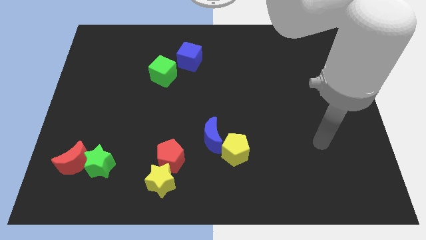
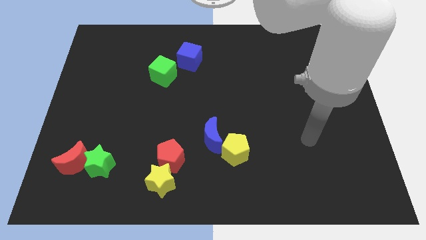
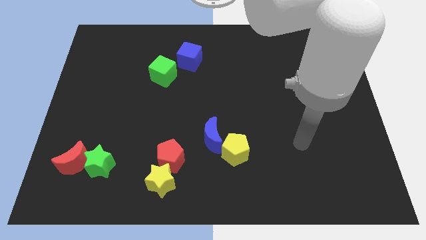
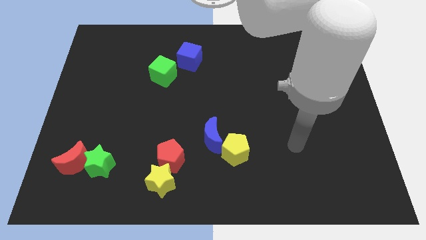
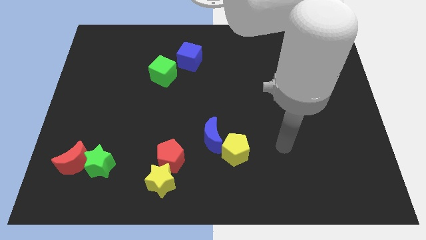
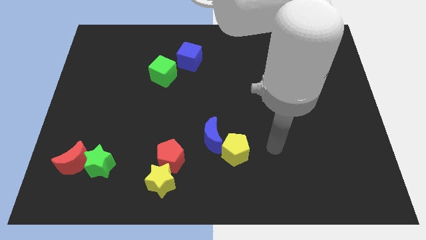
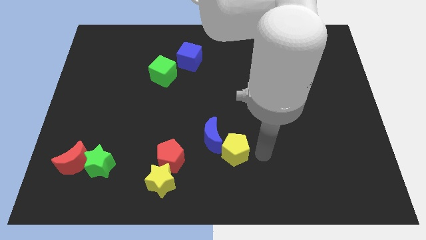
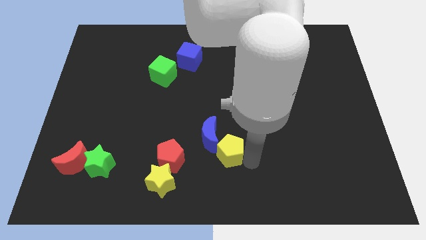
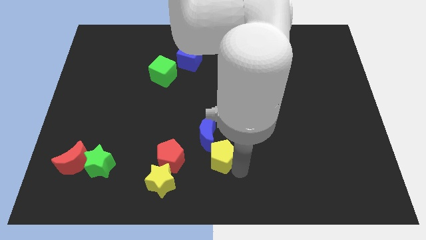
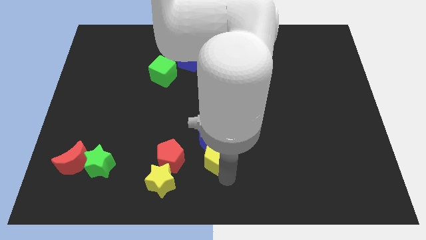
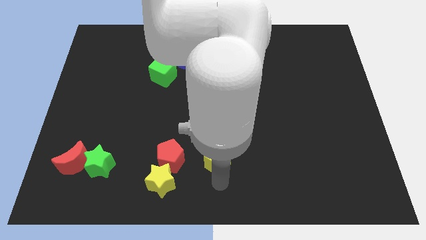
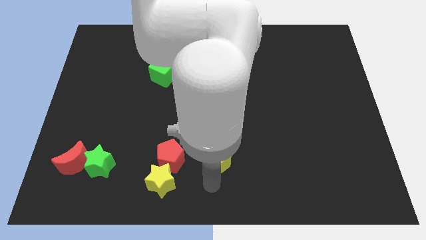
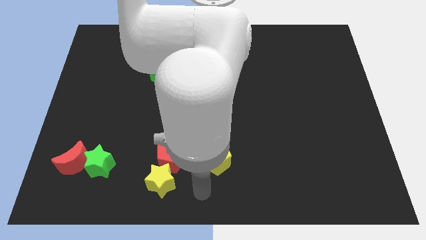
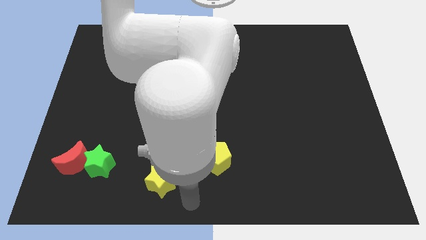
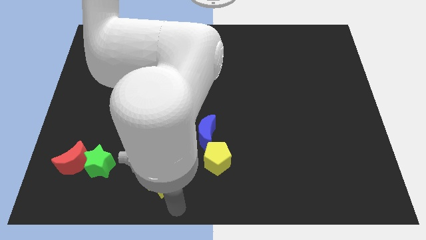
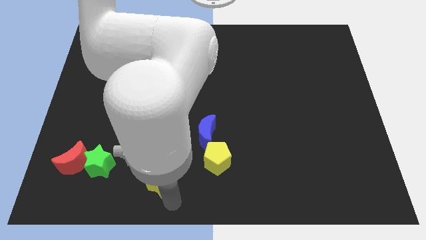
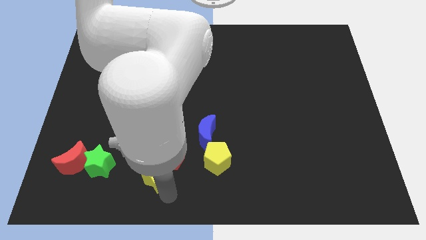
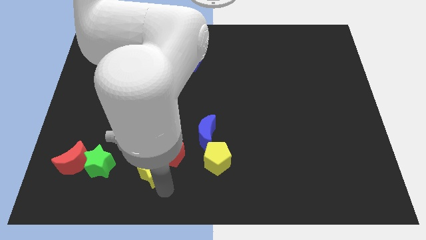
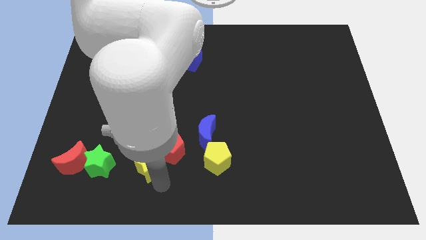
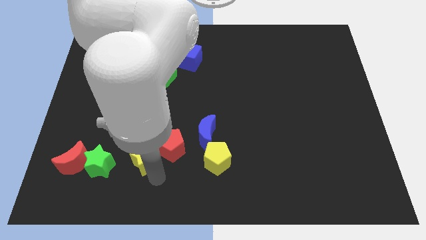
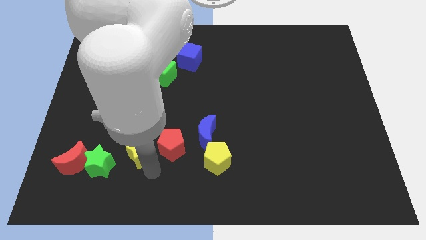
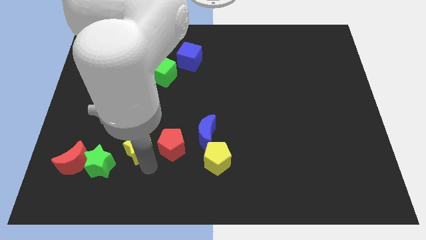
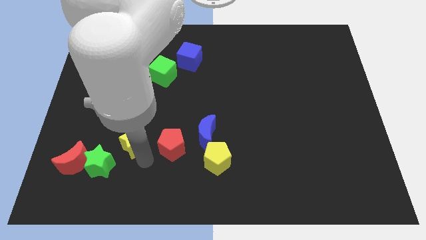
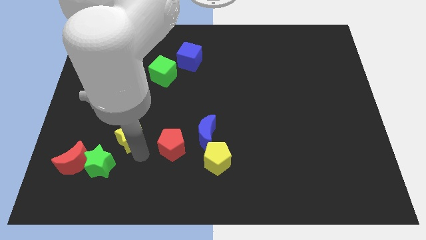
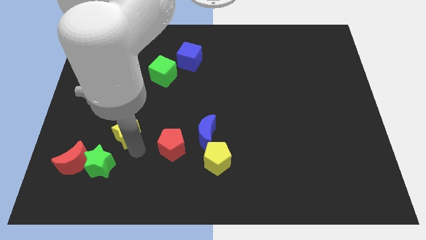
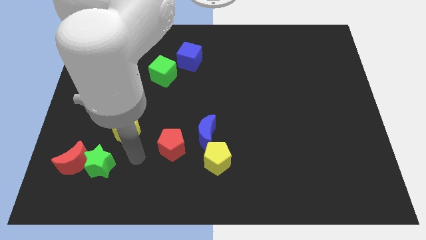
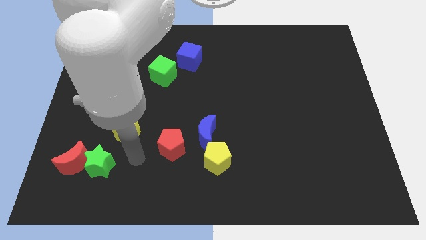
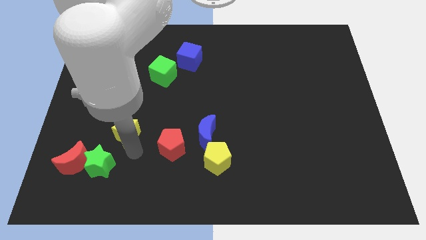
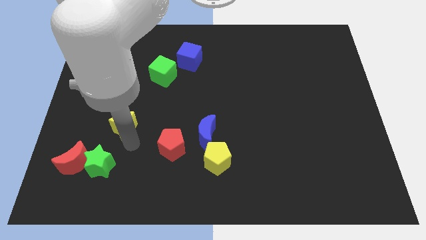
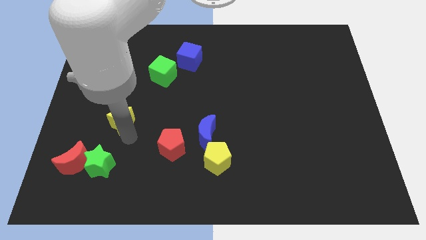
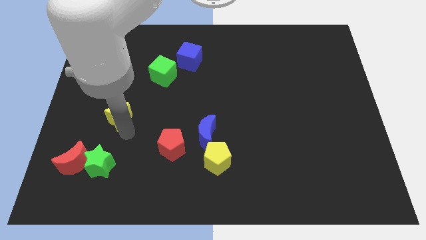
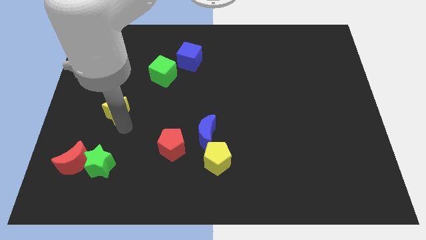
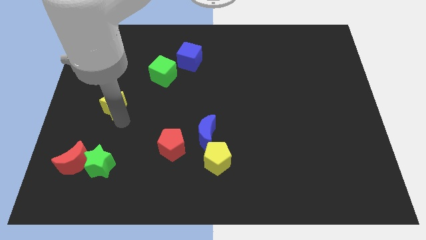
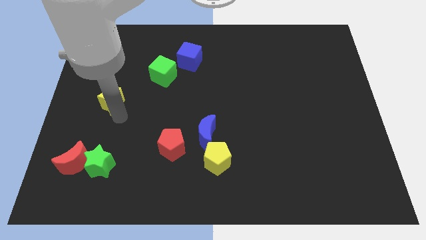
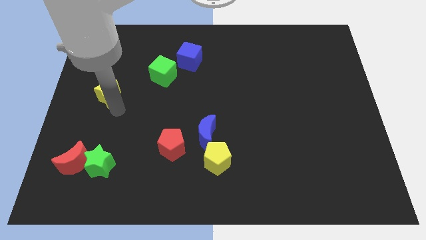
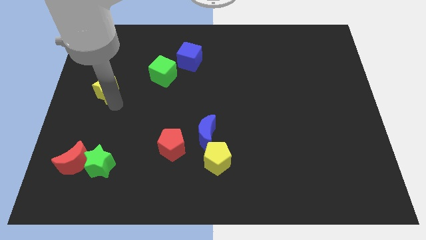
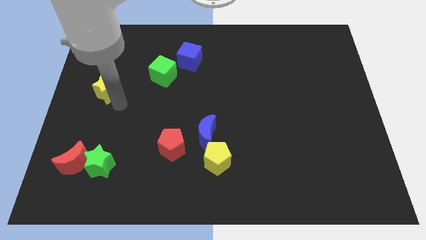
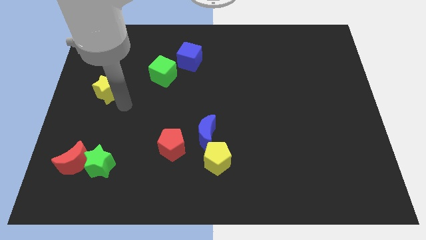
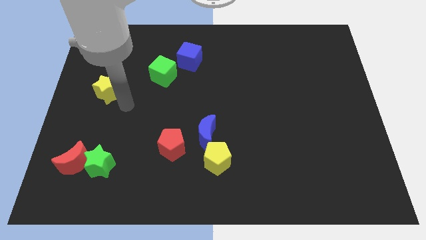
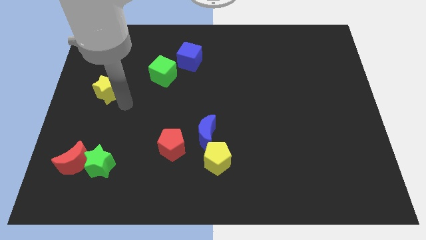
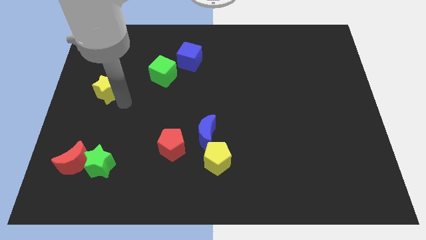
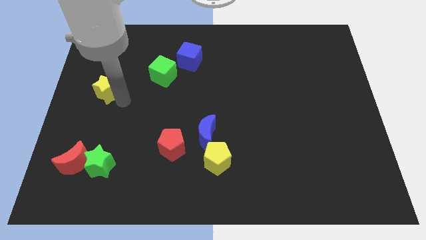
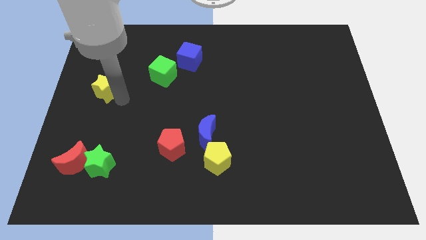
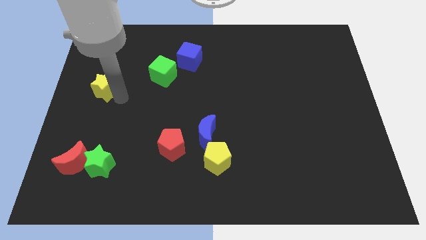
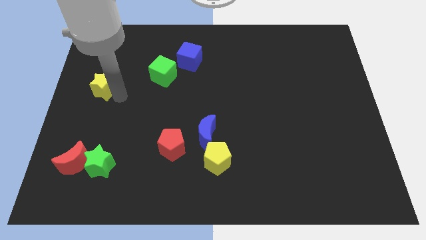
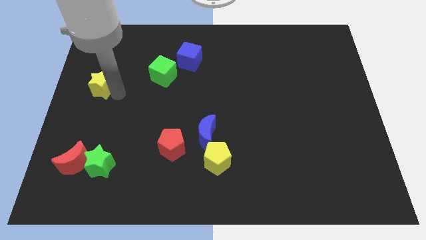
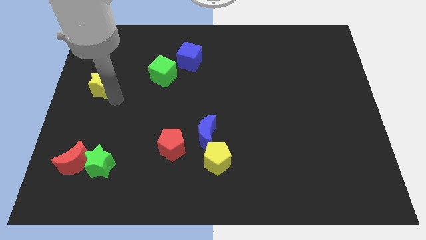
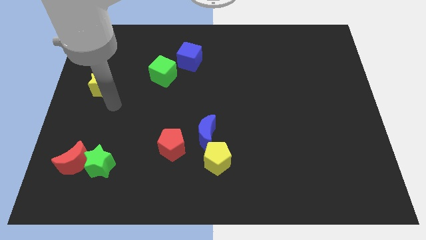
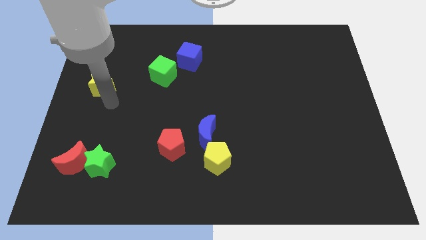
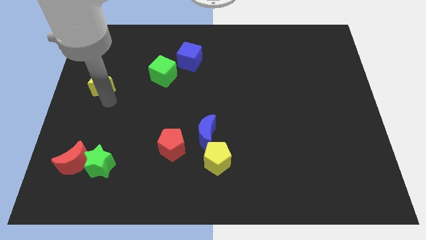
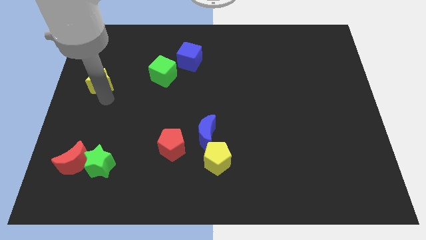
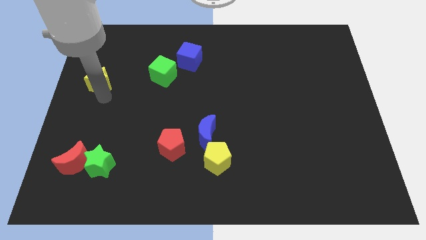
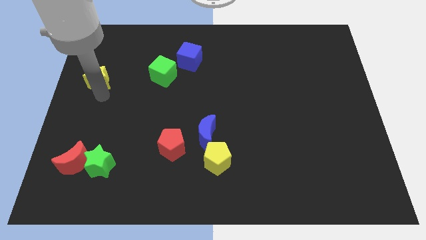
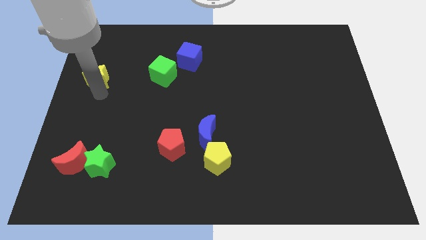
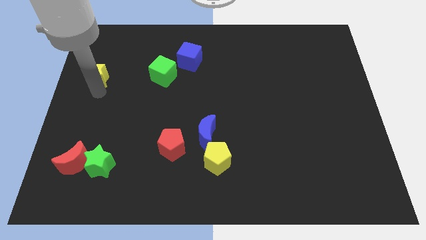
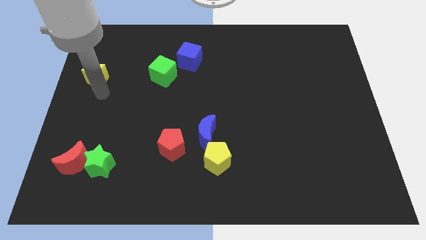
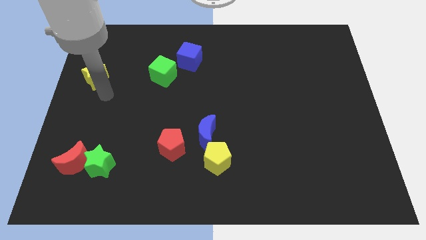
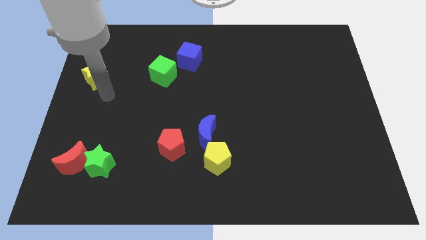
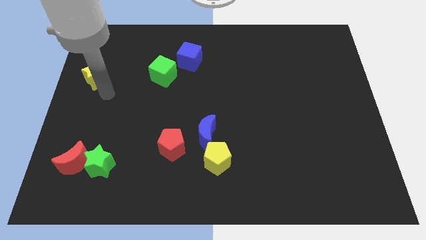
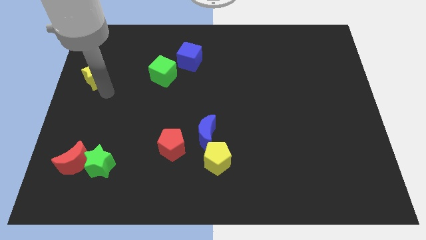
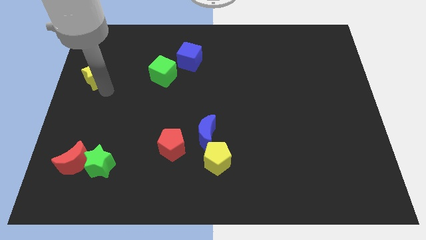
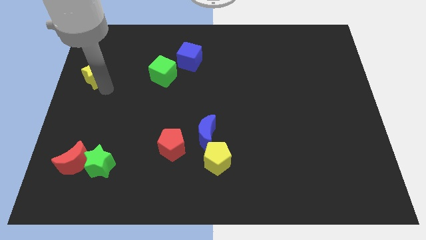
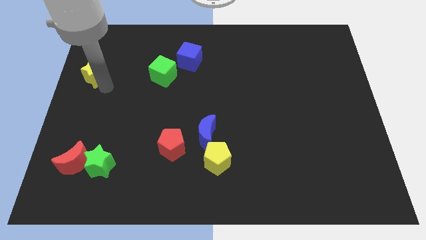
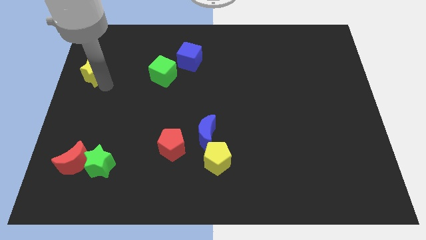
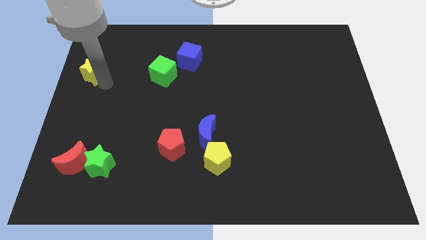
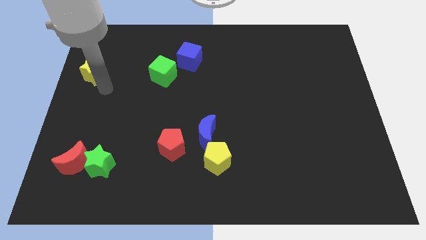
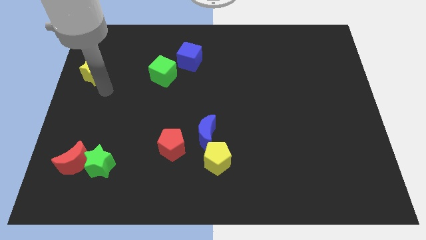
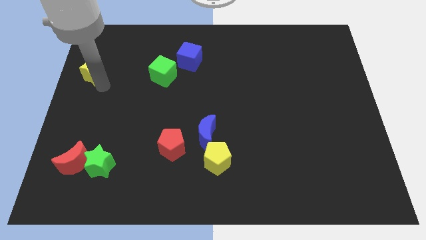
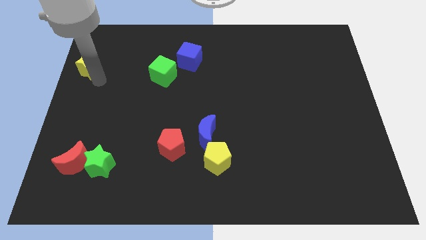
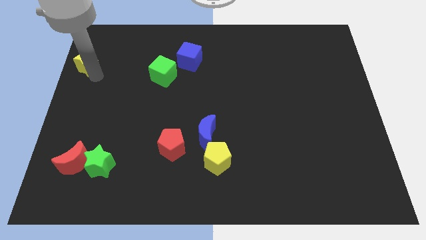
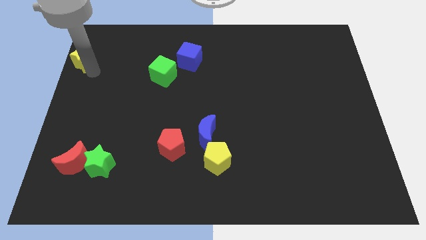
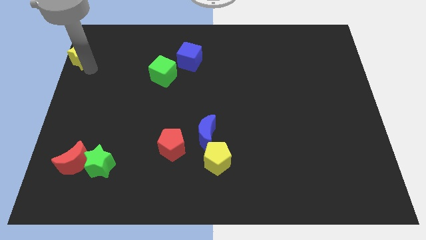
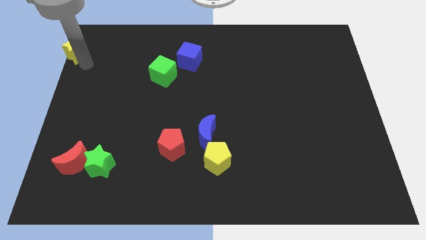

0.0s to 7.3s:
move the yellow star to the upper left corner

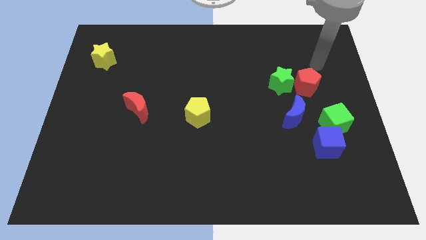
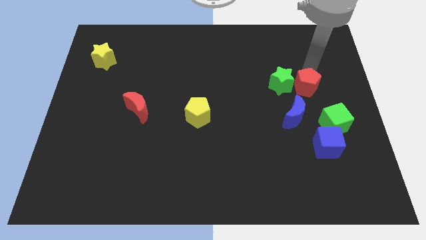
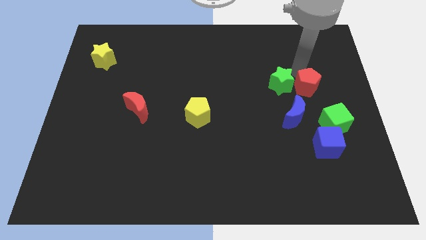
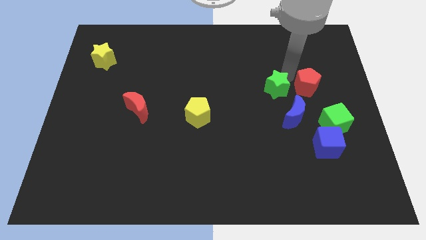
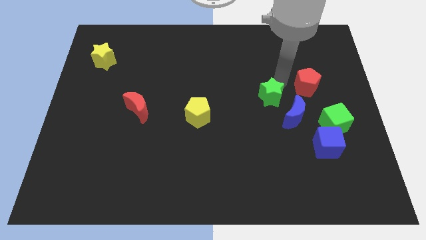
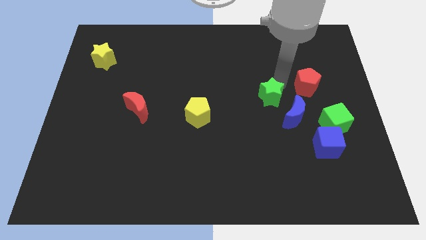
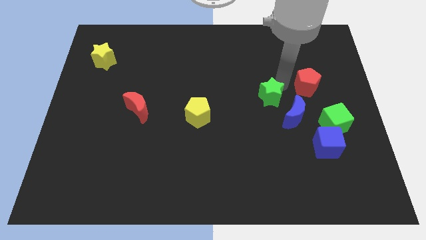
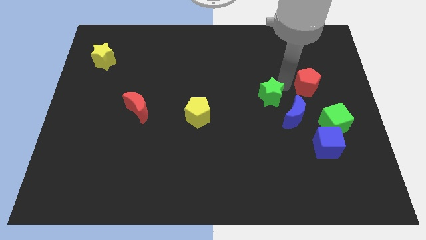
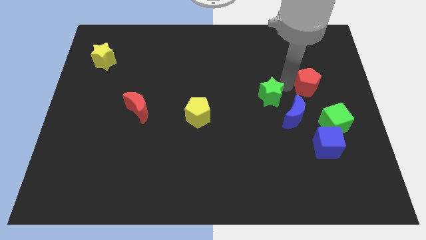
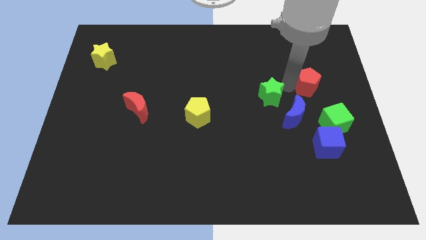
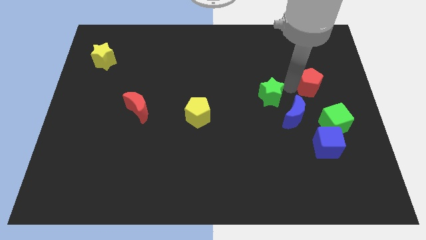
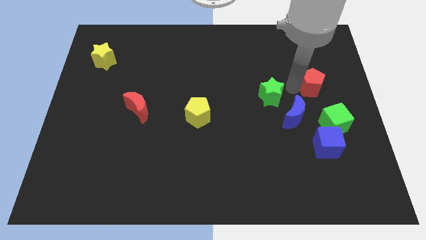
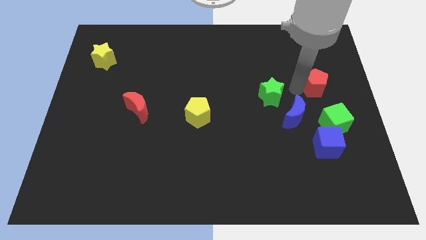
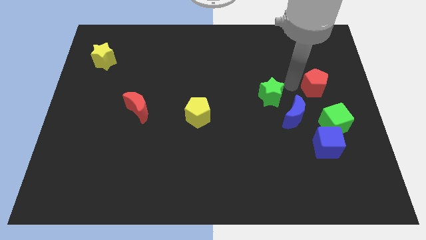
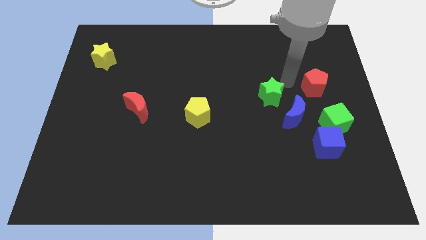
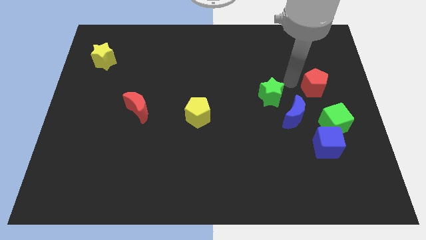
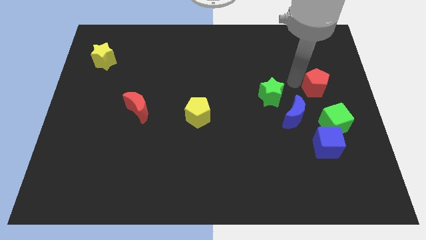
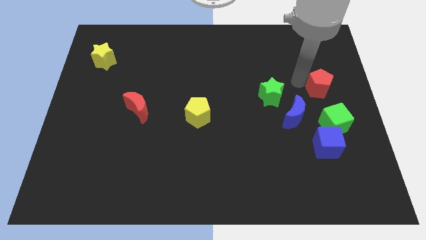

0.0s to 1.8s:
put the red pentagon to the center right
